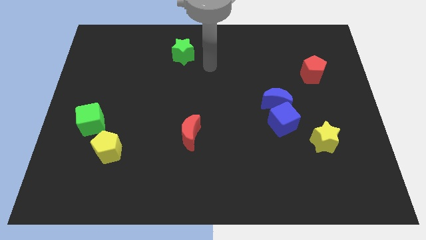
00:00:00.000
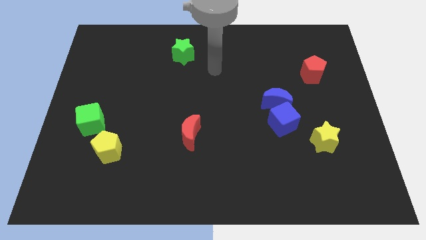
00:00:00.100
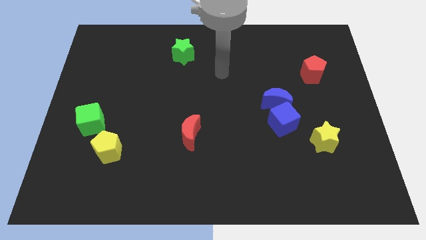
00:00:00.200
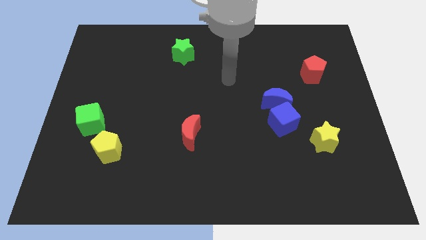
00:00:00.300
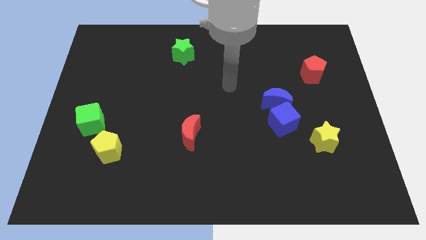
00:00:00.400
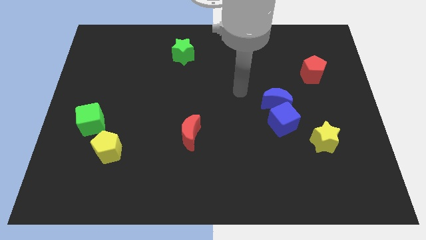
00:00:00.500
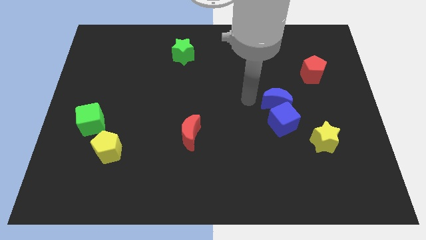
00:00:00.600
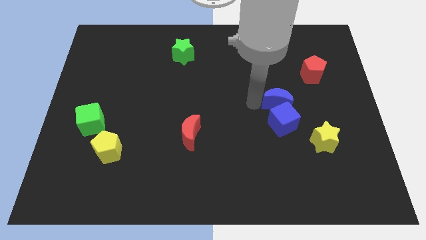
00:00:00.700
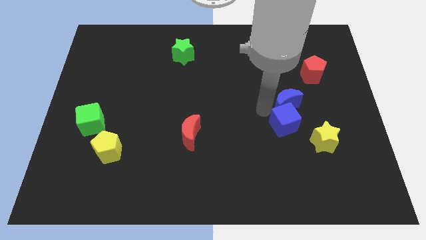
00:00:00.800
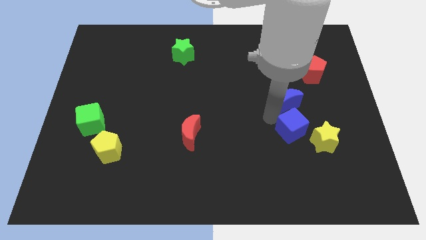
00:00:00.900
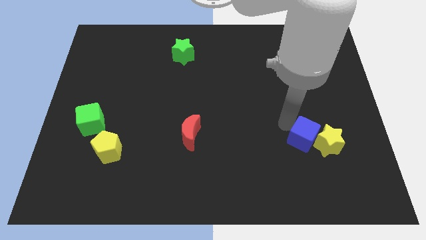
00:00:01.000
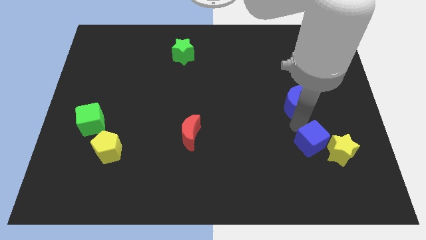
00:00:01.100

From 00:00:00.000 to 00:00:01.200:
move the blue moon away from the blue cube

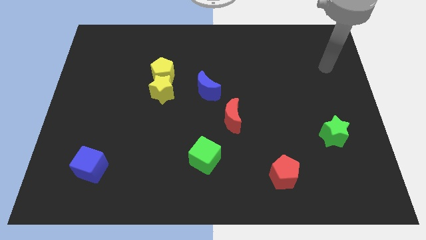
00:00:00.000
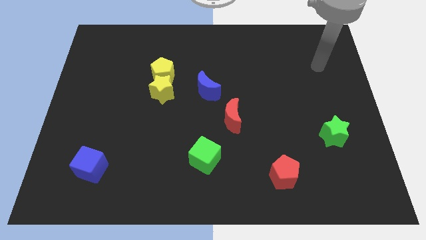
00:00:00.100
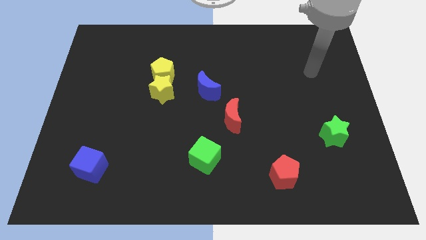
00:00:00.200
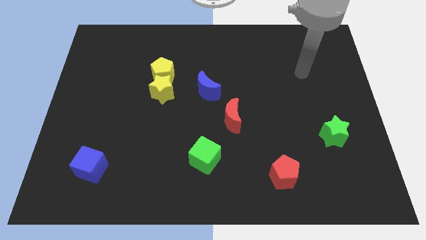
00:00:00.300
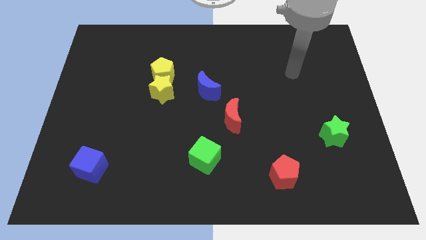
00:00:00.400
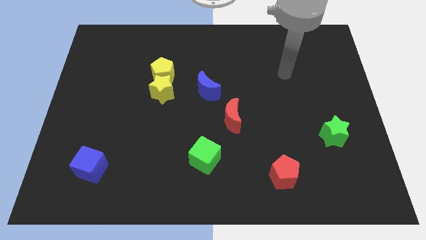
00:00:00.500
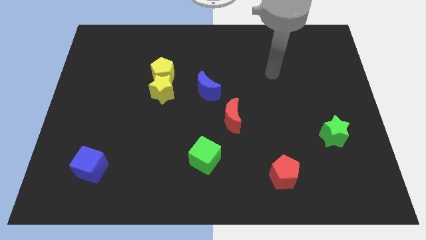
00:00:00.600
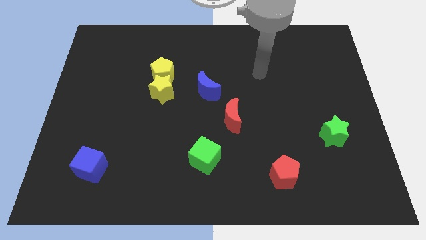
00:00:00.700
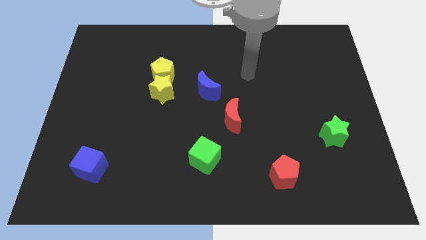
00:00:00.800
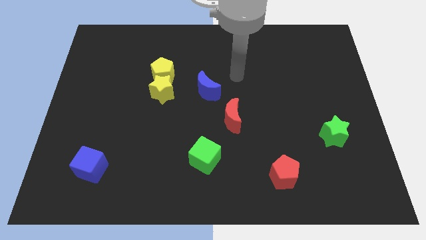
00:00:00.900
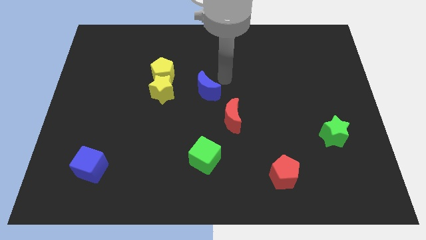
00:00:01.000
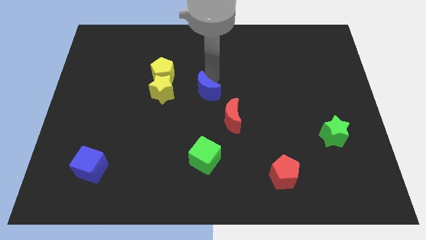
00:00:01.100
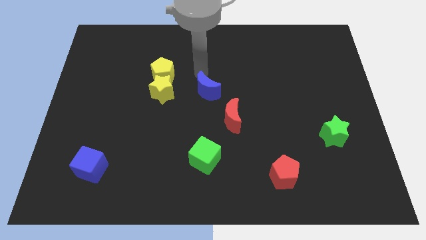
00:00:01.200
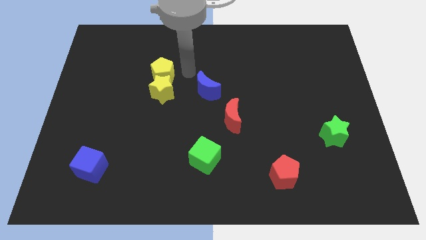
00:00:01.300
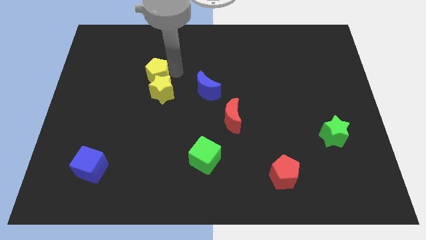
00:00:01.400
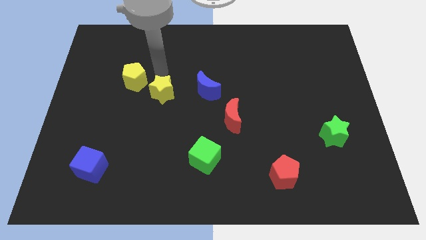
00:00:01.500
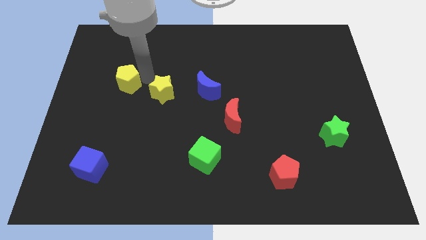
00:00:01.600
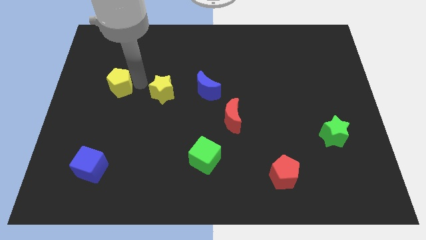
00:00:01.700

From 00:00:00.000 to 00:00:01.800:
pull the yellow star apart from the yellow pentagon

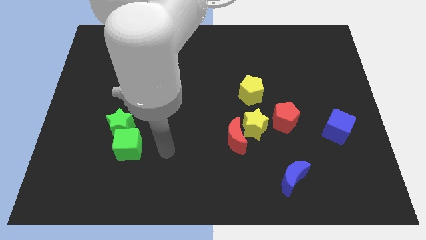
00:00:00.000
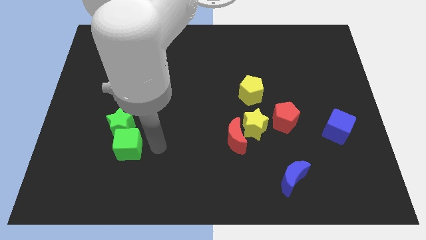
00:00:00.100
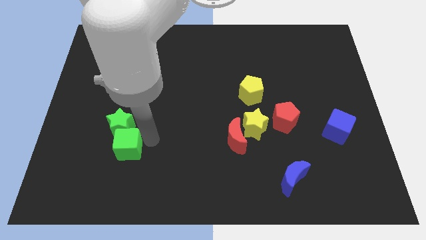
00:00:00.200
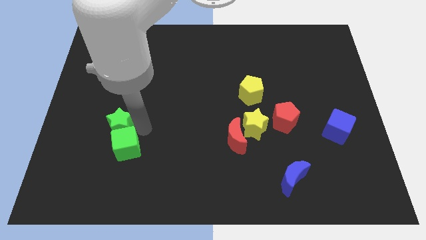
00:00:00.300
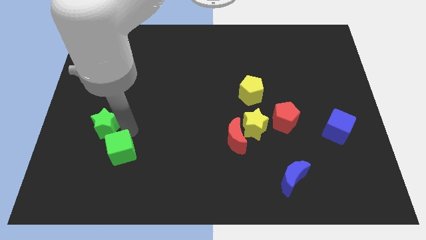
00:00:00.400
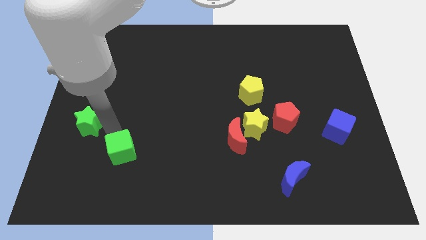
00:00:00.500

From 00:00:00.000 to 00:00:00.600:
pull the green cube apart from the green star

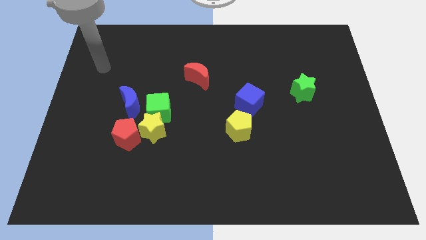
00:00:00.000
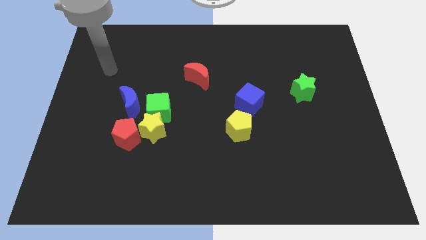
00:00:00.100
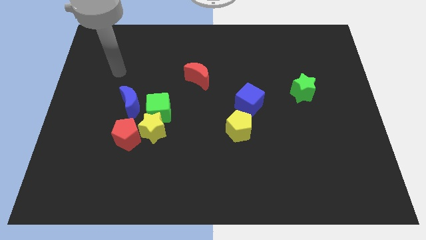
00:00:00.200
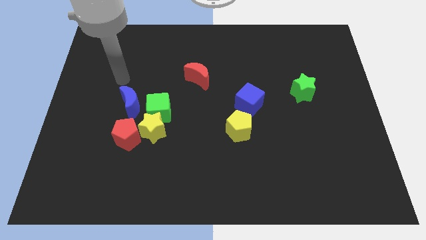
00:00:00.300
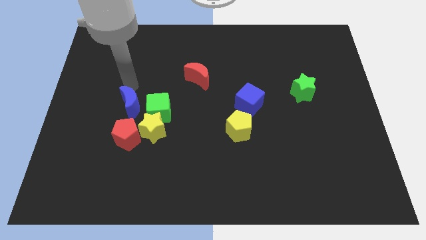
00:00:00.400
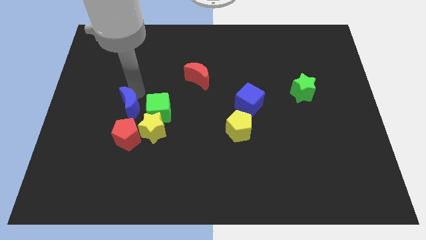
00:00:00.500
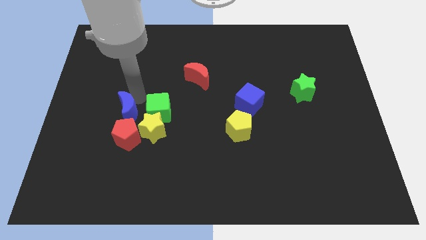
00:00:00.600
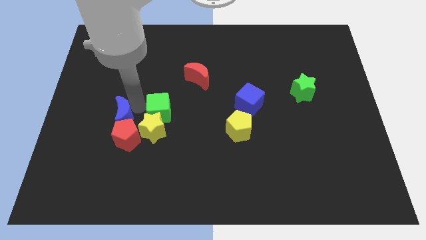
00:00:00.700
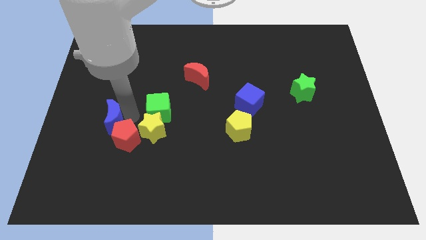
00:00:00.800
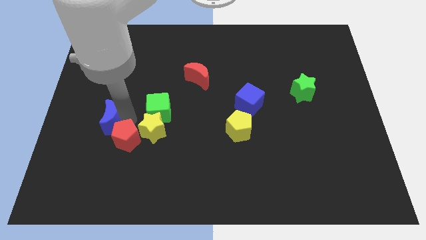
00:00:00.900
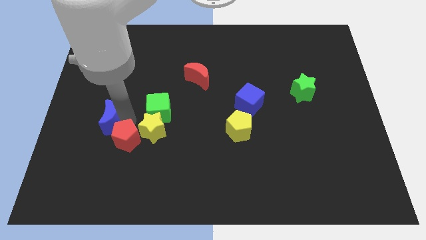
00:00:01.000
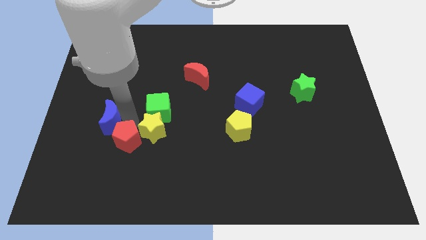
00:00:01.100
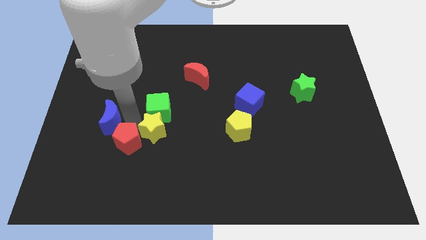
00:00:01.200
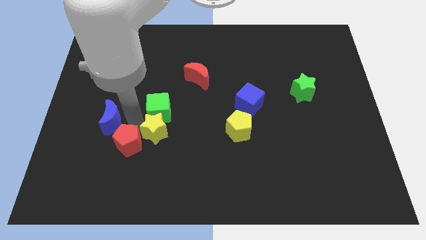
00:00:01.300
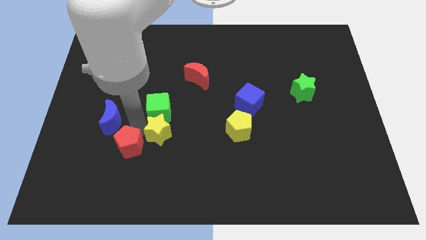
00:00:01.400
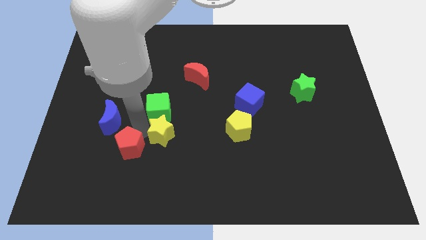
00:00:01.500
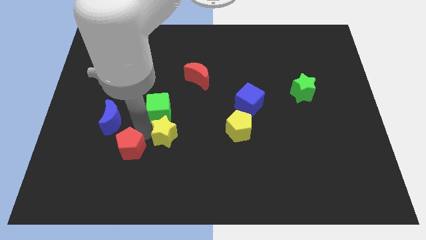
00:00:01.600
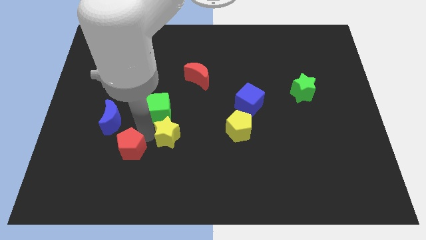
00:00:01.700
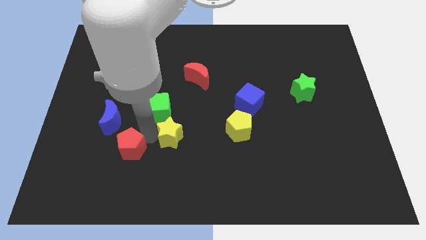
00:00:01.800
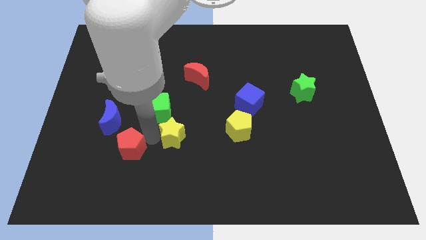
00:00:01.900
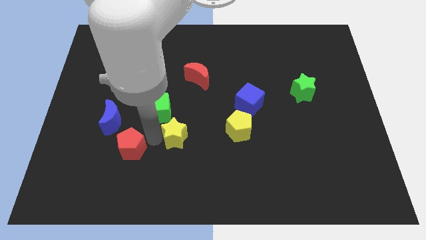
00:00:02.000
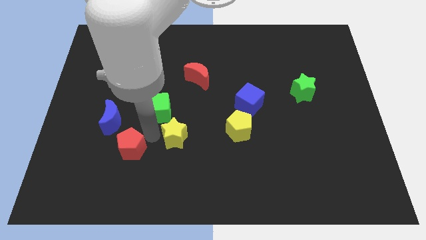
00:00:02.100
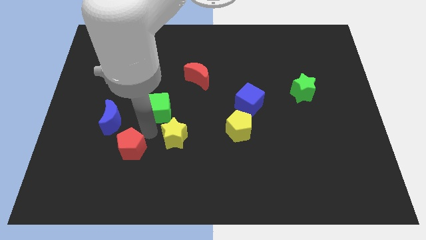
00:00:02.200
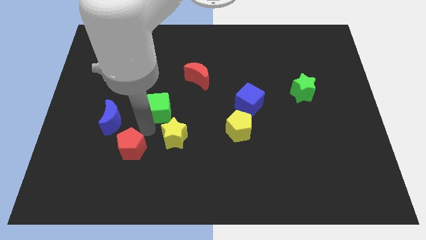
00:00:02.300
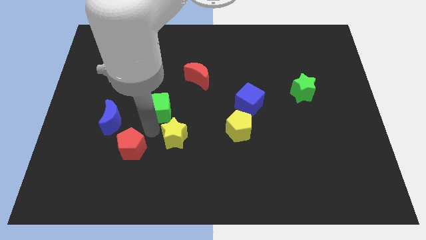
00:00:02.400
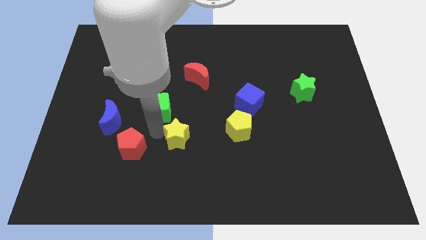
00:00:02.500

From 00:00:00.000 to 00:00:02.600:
pull the yellow star apart from the green cube, red pentagon, and blue moon

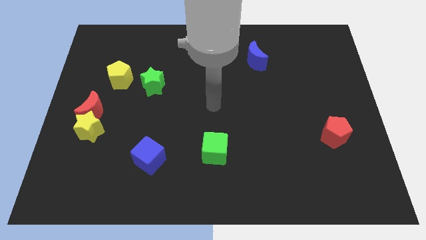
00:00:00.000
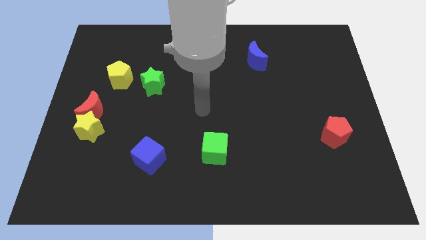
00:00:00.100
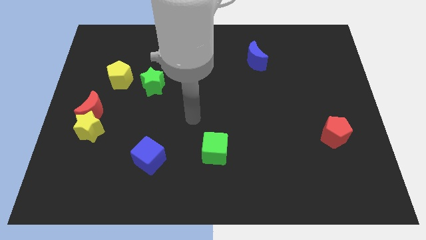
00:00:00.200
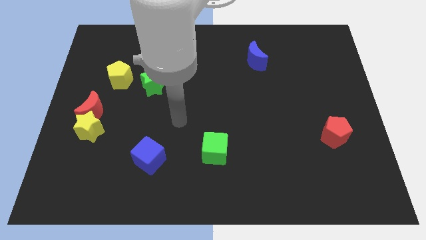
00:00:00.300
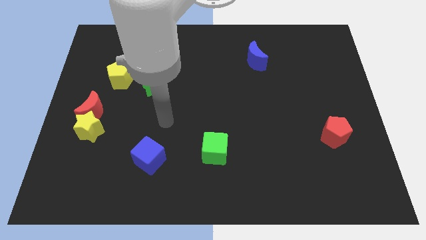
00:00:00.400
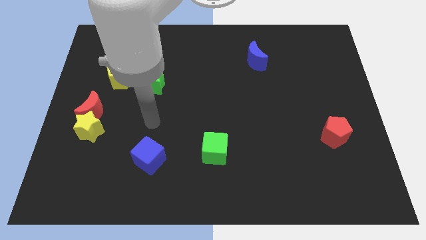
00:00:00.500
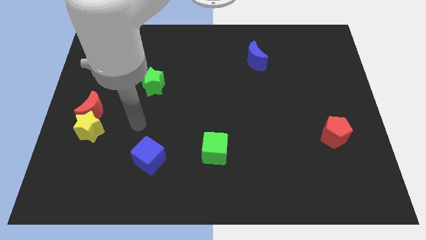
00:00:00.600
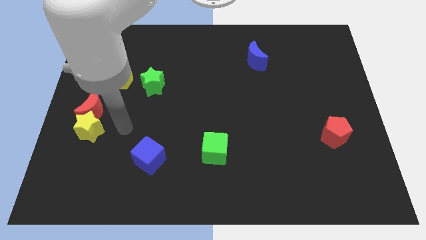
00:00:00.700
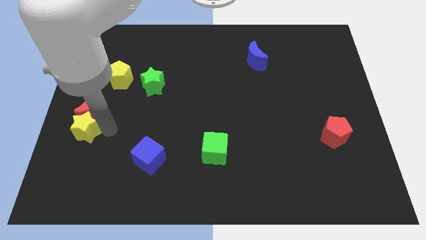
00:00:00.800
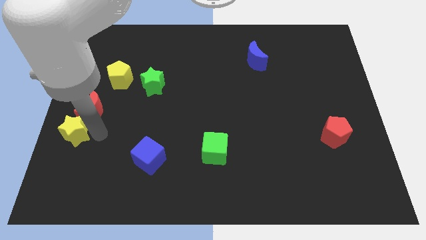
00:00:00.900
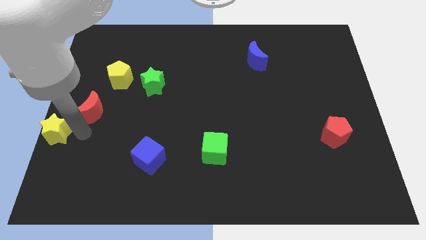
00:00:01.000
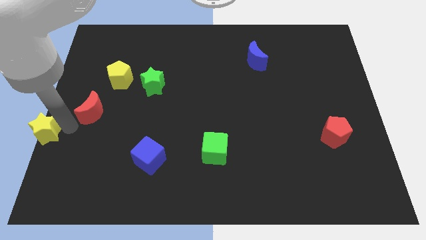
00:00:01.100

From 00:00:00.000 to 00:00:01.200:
move the red moon away from the yellow star

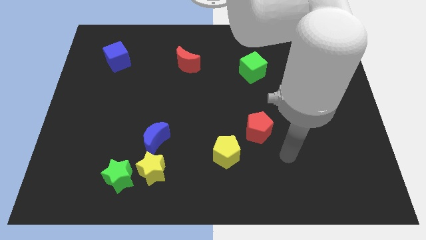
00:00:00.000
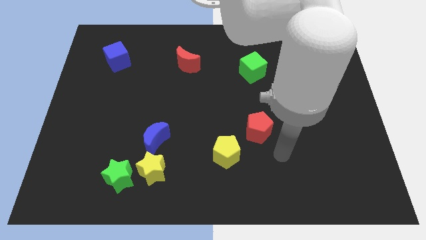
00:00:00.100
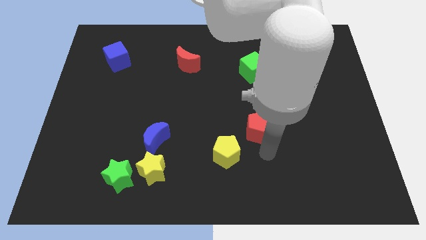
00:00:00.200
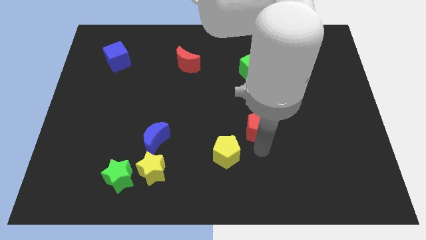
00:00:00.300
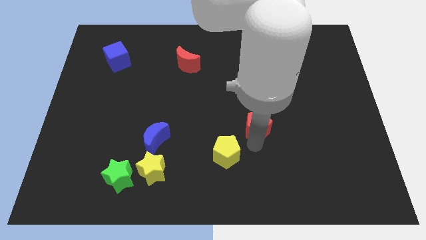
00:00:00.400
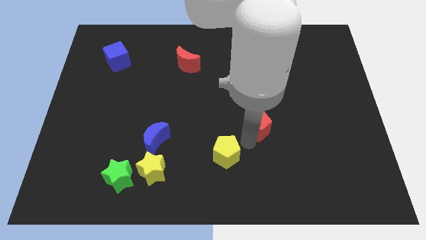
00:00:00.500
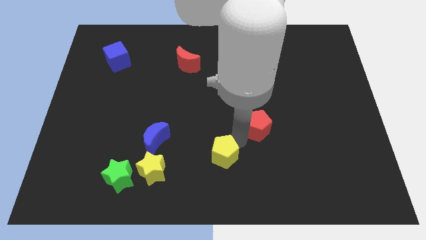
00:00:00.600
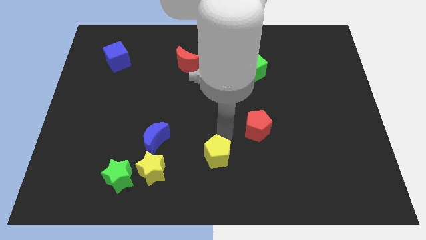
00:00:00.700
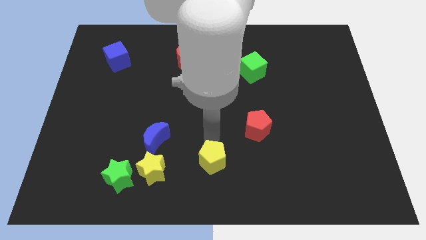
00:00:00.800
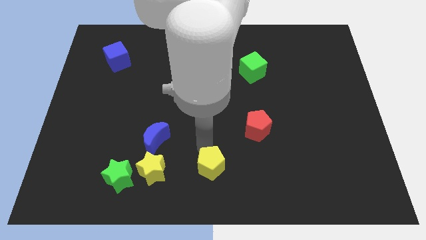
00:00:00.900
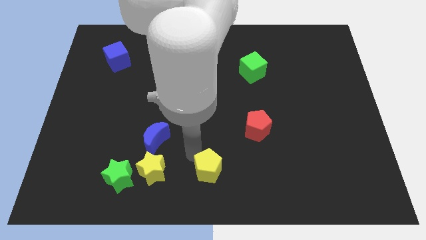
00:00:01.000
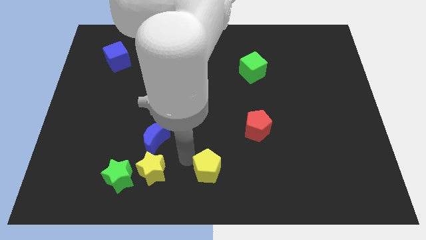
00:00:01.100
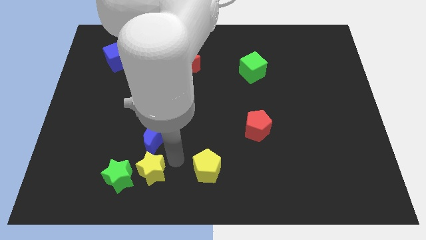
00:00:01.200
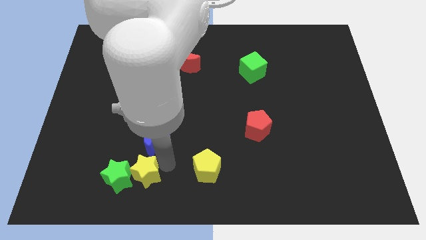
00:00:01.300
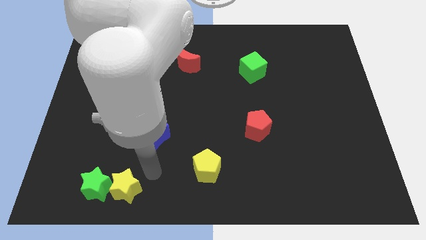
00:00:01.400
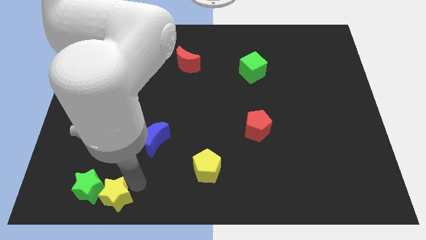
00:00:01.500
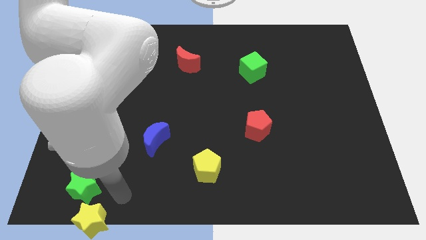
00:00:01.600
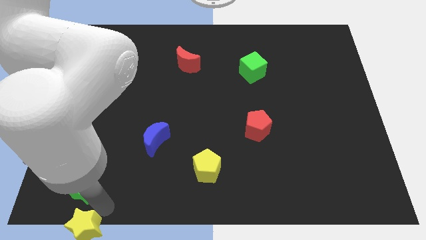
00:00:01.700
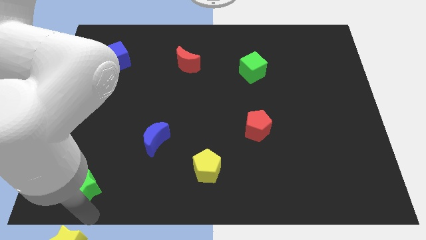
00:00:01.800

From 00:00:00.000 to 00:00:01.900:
move the green star away from the yellow star

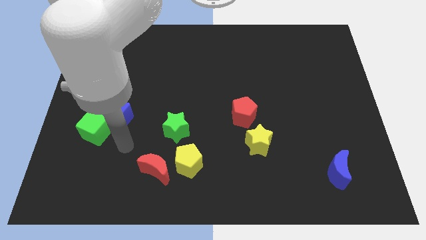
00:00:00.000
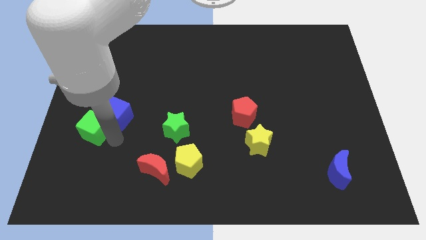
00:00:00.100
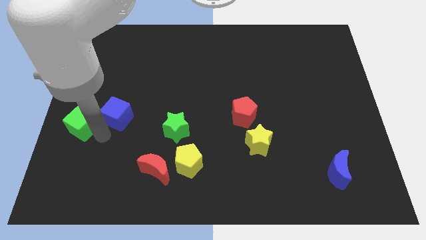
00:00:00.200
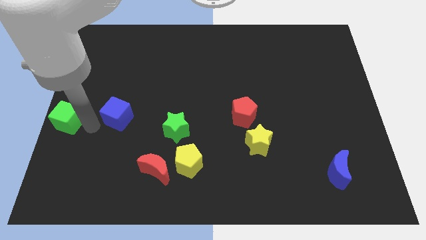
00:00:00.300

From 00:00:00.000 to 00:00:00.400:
pull the blue cube apart from the green cube
